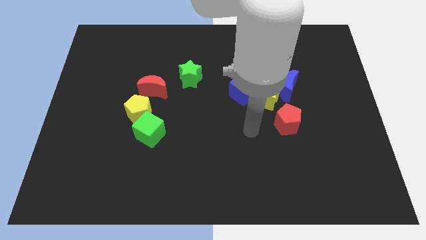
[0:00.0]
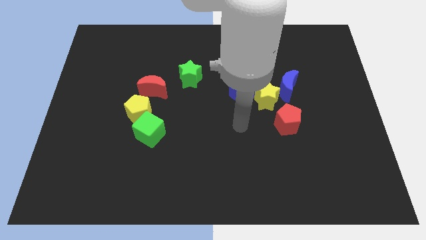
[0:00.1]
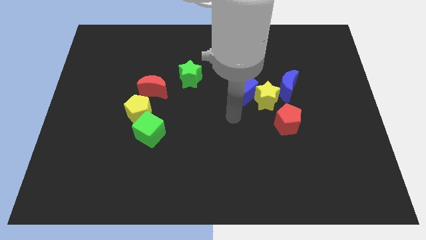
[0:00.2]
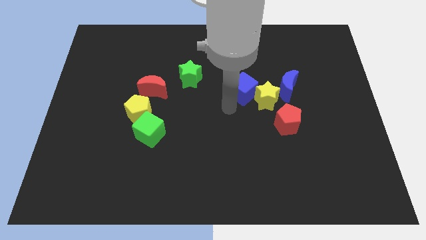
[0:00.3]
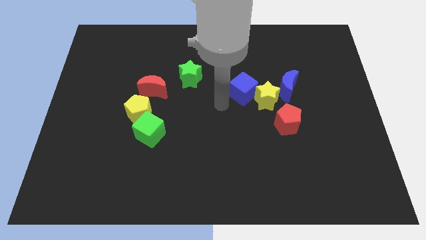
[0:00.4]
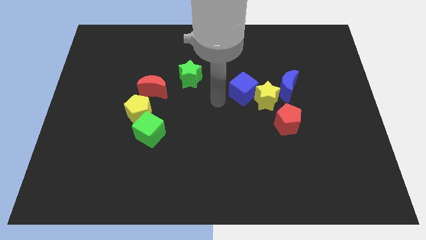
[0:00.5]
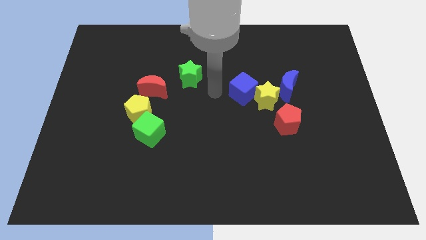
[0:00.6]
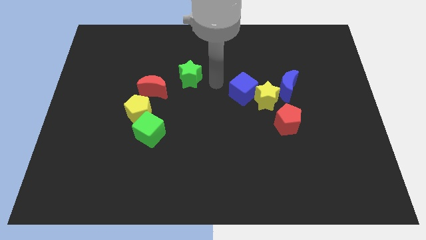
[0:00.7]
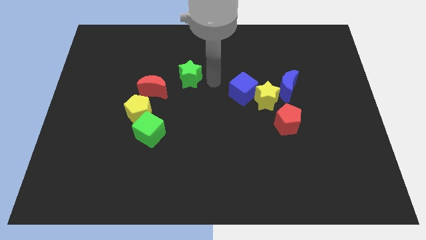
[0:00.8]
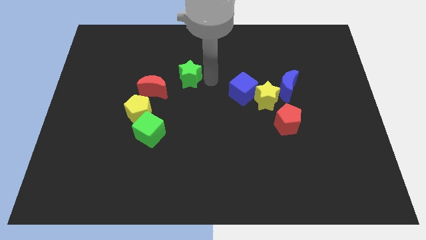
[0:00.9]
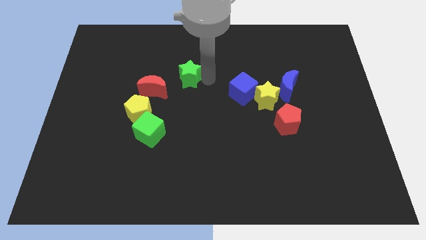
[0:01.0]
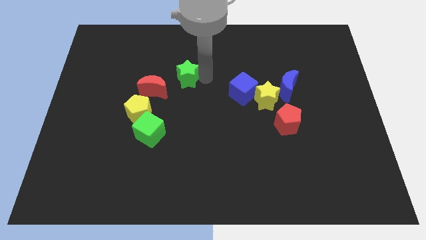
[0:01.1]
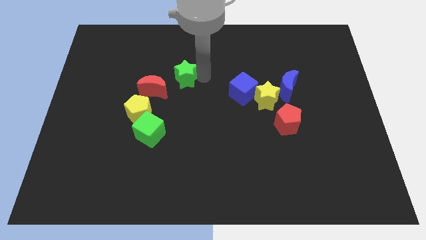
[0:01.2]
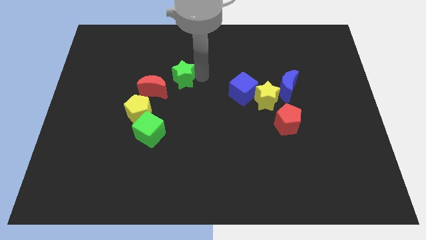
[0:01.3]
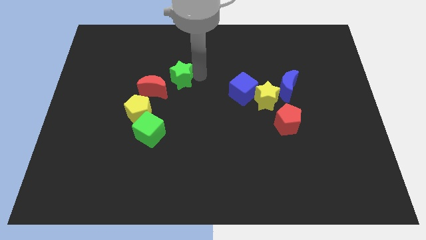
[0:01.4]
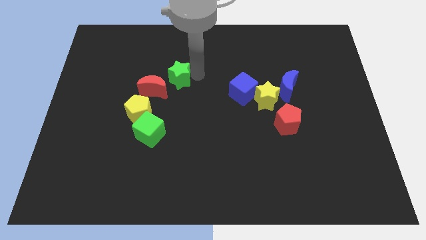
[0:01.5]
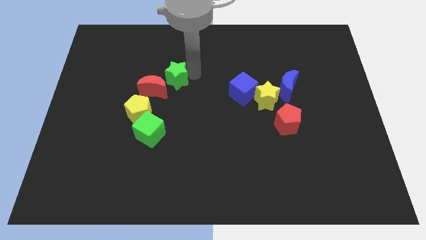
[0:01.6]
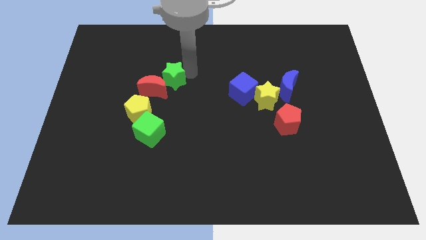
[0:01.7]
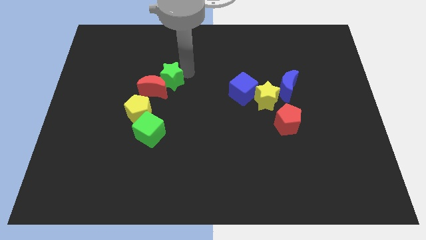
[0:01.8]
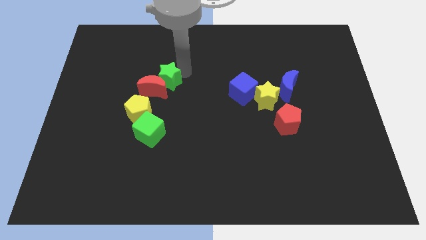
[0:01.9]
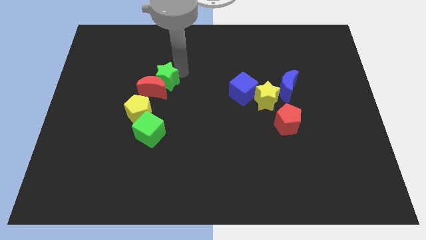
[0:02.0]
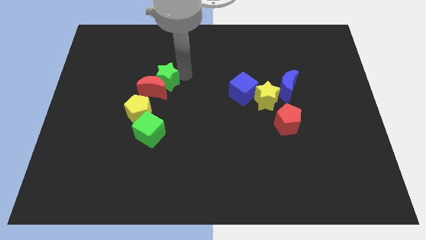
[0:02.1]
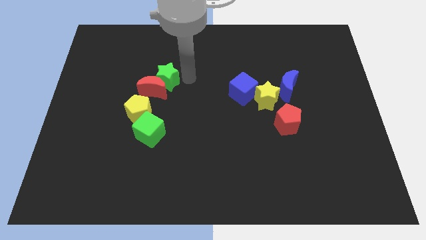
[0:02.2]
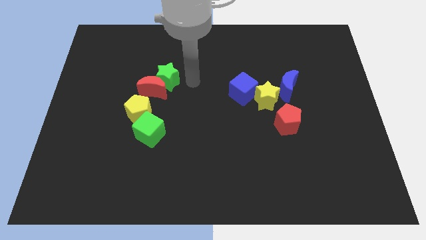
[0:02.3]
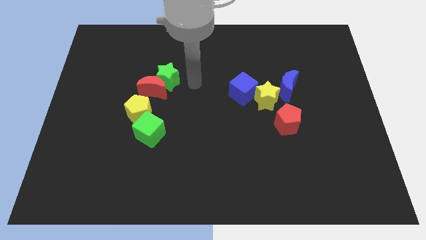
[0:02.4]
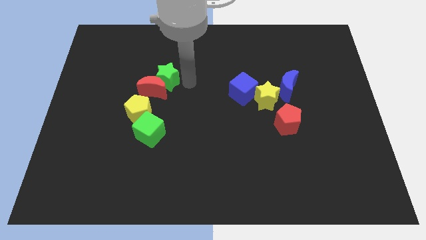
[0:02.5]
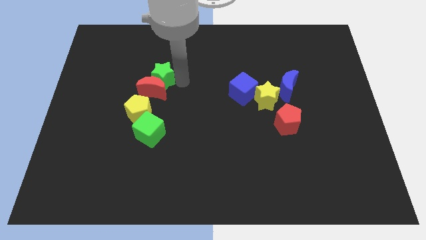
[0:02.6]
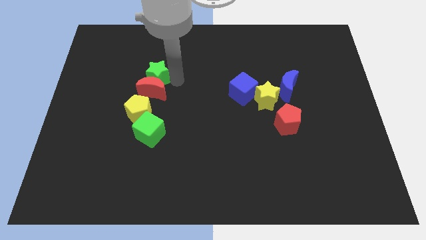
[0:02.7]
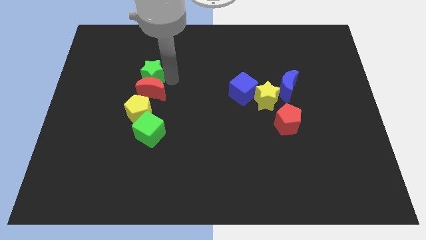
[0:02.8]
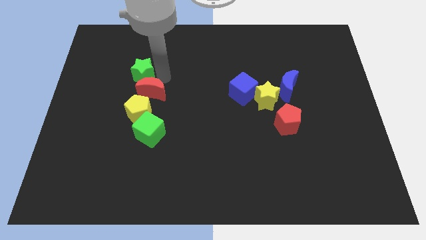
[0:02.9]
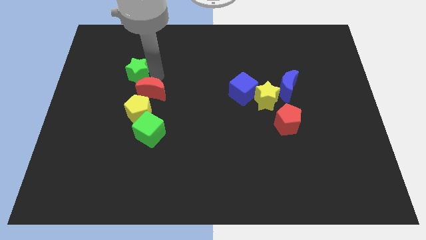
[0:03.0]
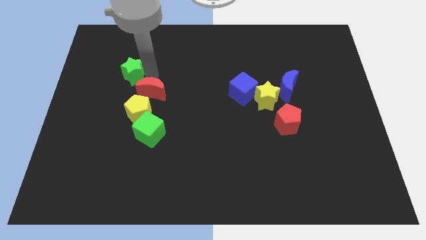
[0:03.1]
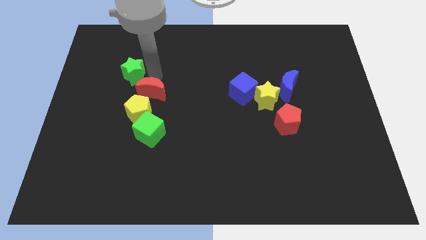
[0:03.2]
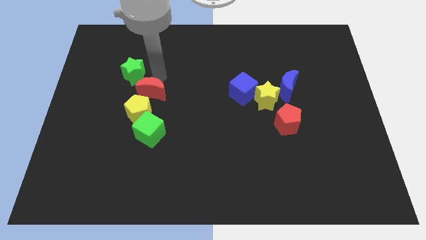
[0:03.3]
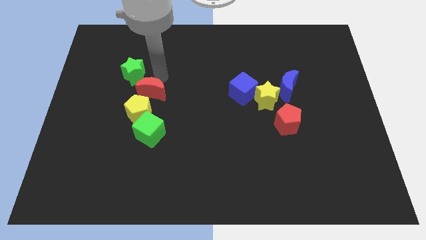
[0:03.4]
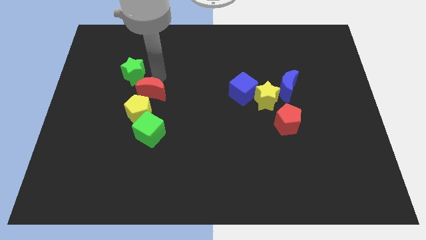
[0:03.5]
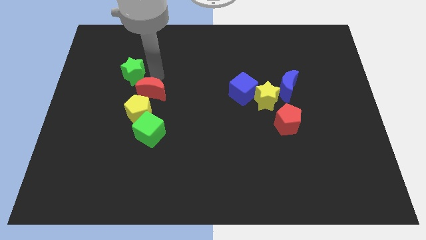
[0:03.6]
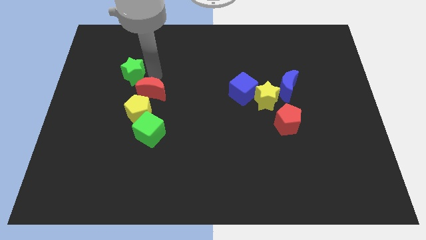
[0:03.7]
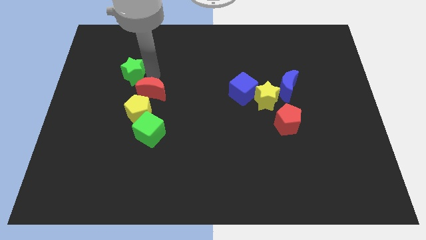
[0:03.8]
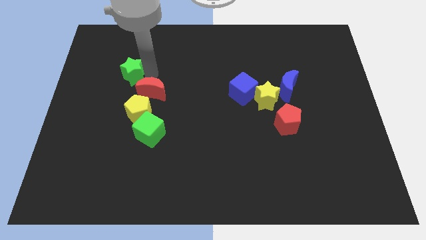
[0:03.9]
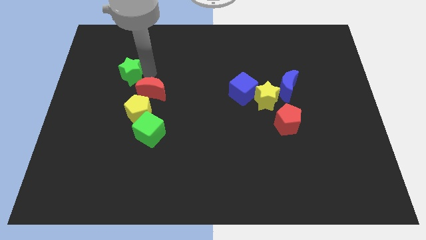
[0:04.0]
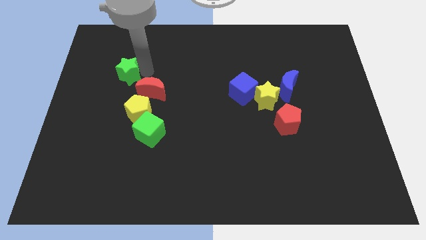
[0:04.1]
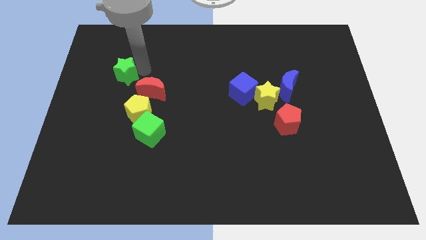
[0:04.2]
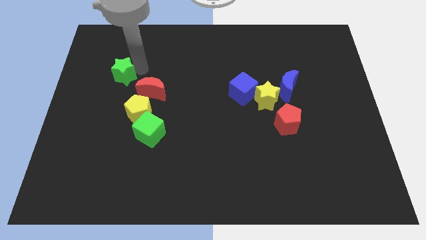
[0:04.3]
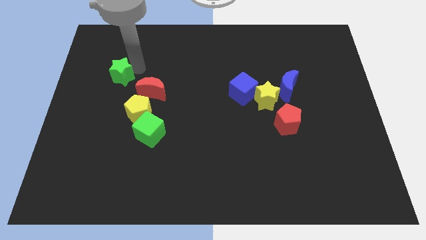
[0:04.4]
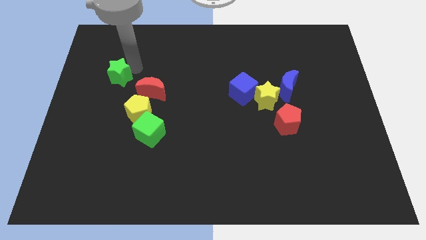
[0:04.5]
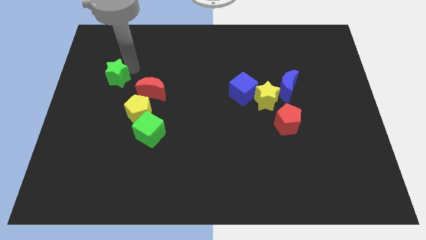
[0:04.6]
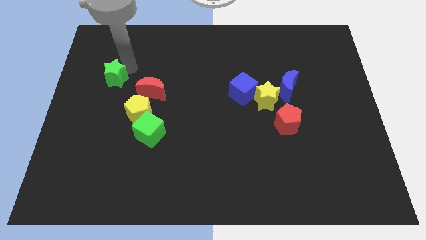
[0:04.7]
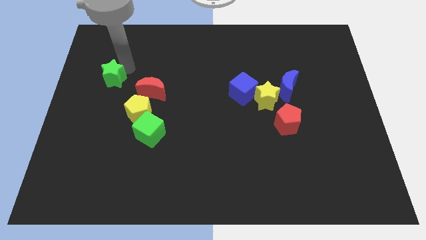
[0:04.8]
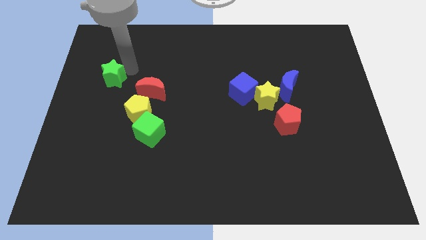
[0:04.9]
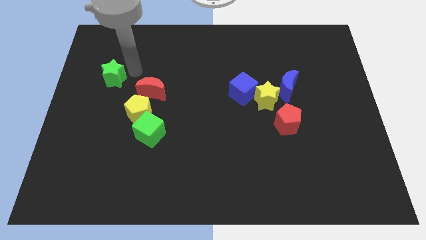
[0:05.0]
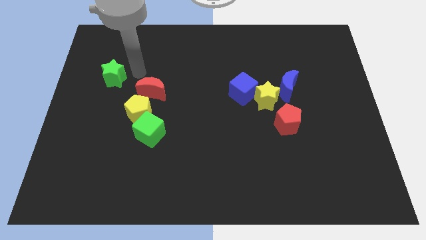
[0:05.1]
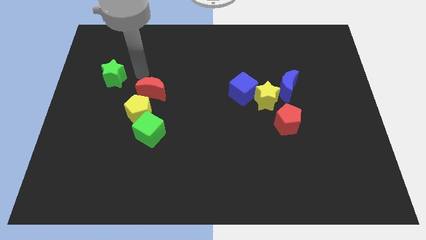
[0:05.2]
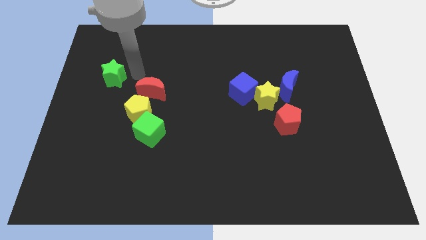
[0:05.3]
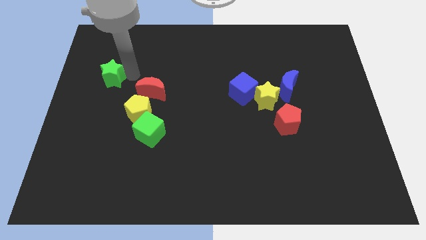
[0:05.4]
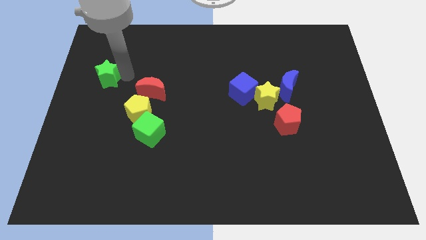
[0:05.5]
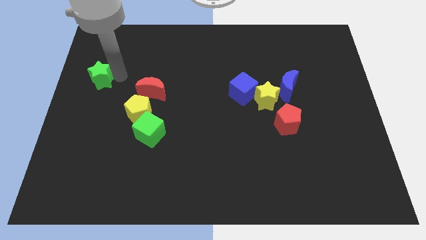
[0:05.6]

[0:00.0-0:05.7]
move the green star to the center left
